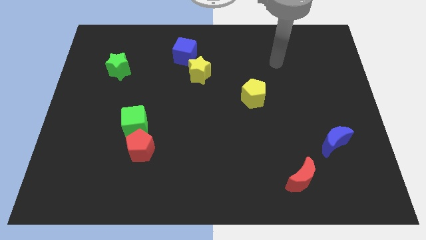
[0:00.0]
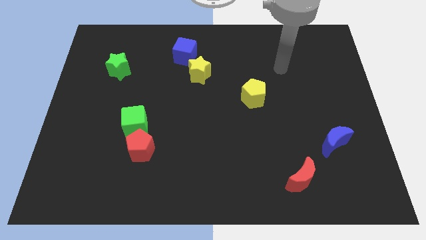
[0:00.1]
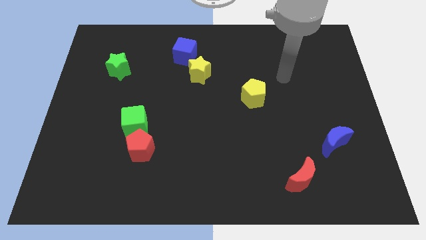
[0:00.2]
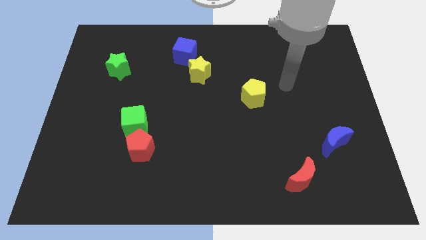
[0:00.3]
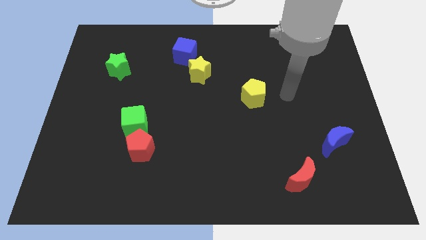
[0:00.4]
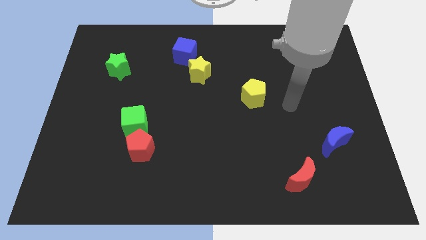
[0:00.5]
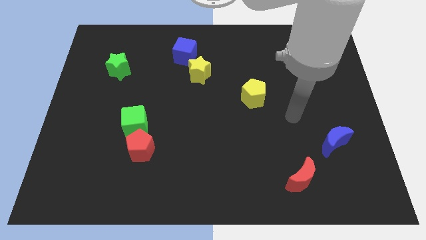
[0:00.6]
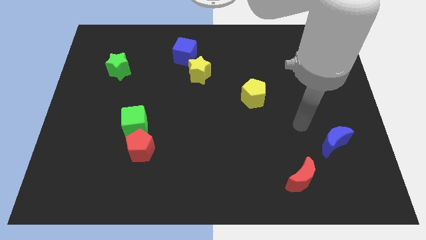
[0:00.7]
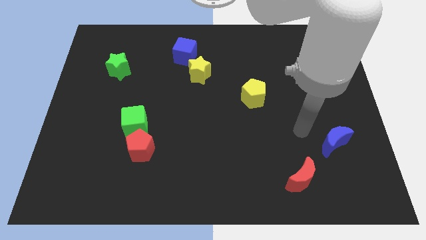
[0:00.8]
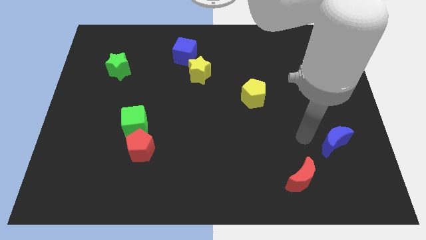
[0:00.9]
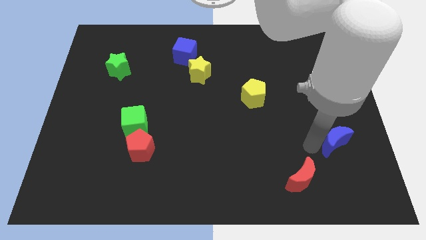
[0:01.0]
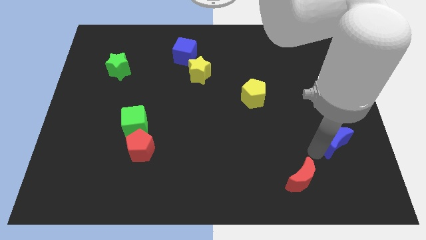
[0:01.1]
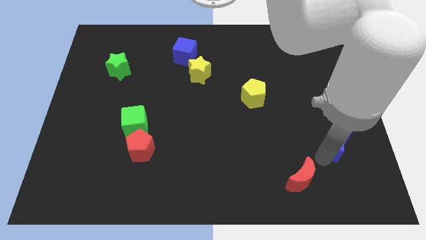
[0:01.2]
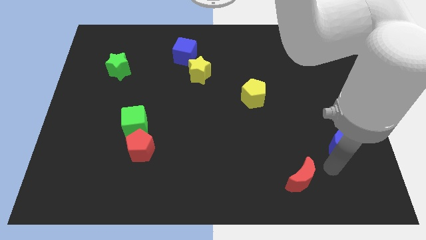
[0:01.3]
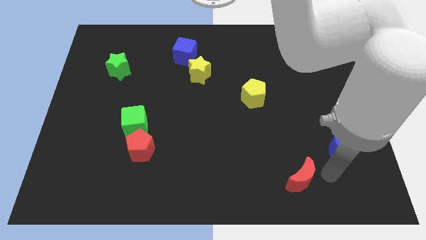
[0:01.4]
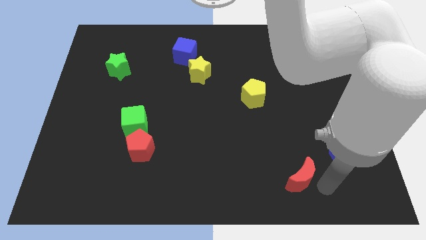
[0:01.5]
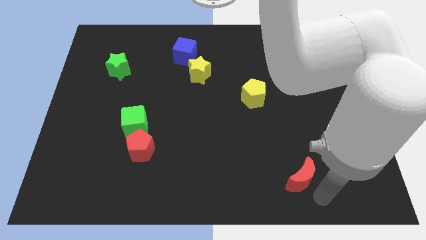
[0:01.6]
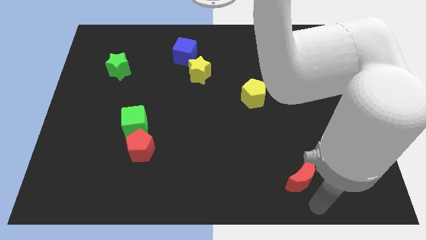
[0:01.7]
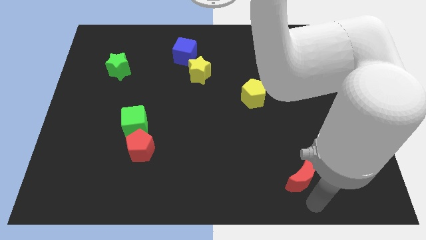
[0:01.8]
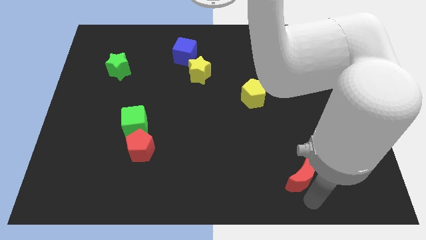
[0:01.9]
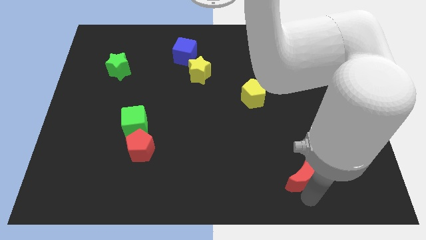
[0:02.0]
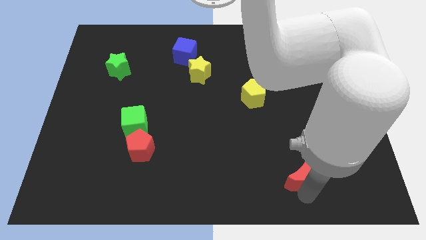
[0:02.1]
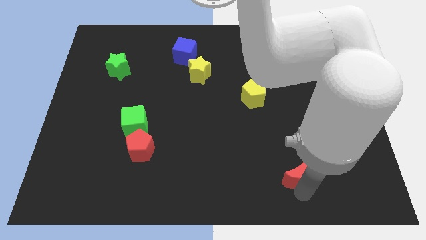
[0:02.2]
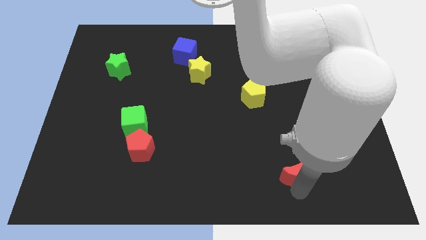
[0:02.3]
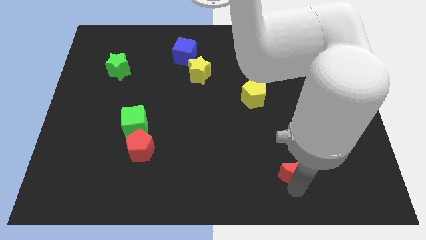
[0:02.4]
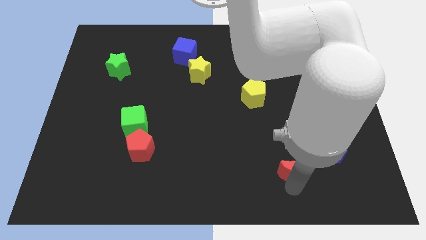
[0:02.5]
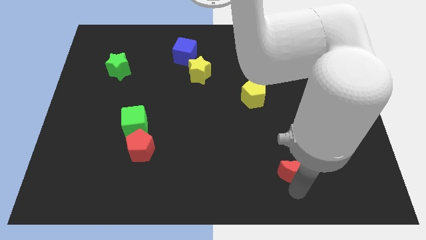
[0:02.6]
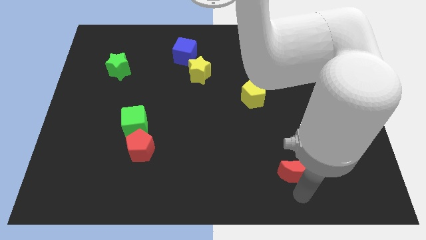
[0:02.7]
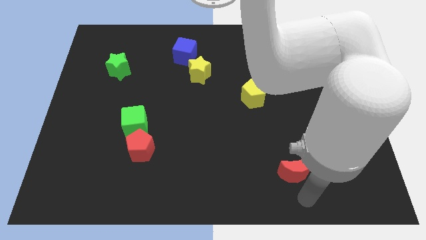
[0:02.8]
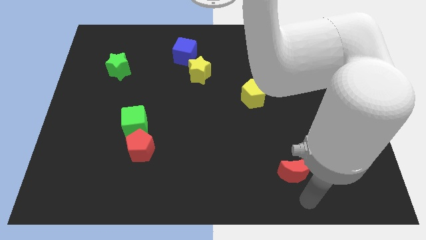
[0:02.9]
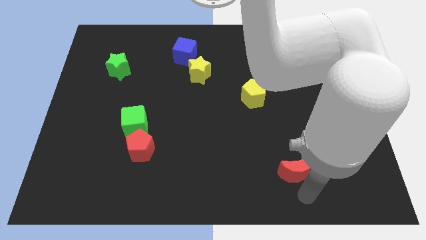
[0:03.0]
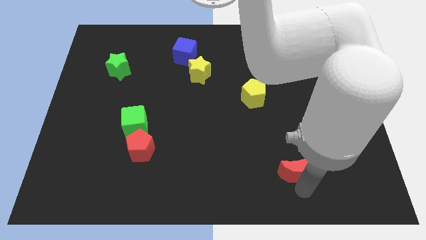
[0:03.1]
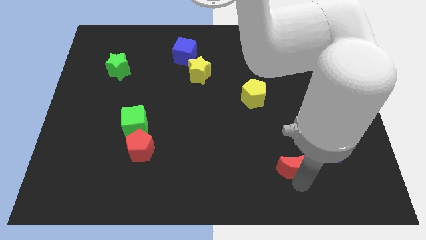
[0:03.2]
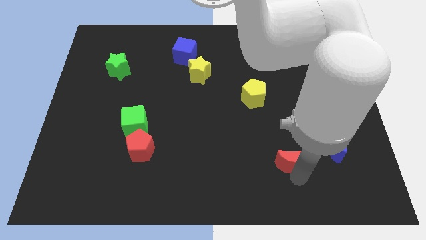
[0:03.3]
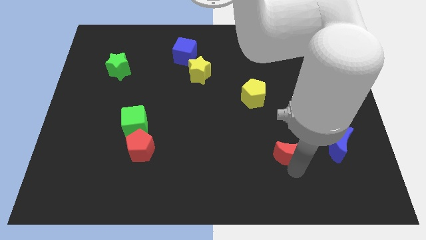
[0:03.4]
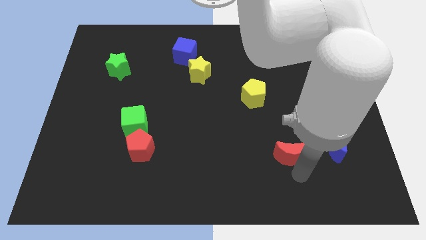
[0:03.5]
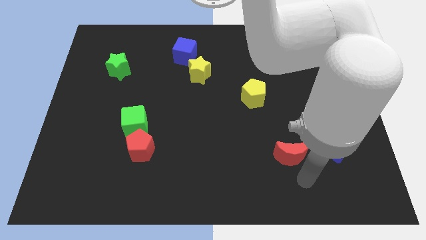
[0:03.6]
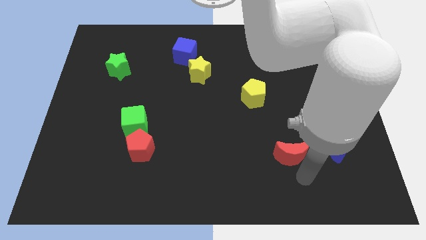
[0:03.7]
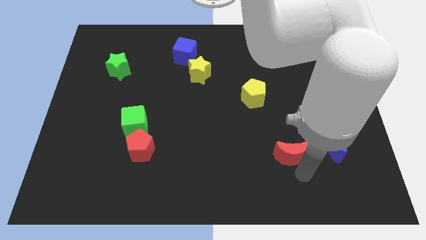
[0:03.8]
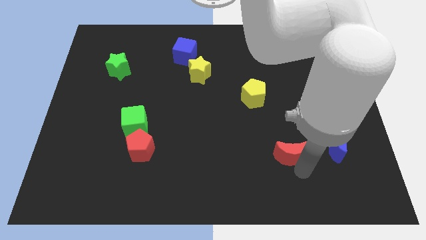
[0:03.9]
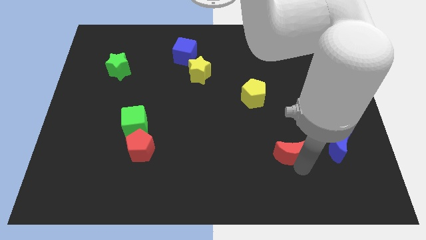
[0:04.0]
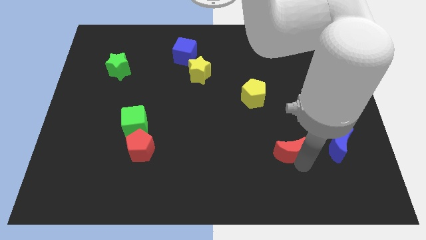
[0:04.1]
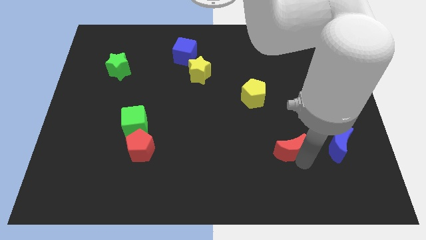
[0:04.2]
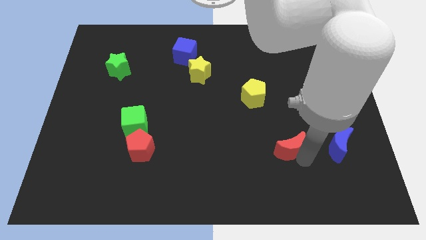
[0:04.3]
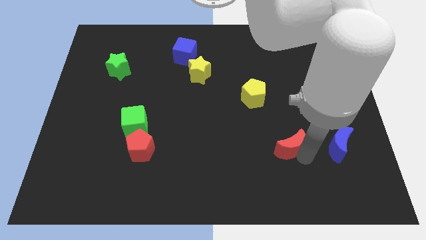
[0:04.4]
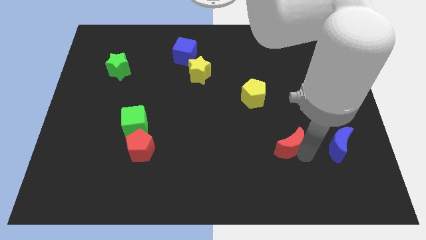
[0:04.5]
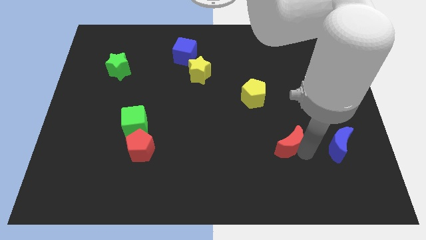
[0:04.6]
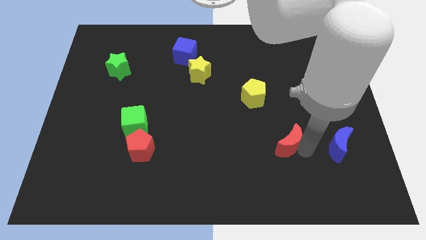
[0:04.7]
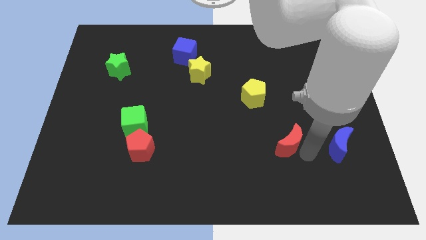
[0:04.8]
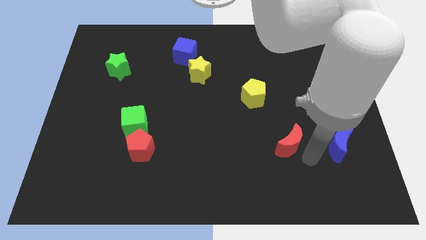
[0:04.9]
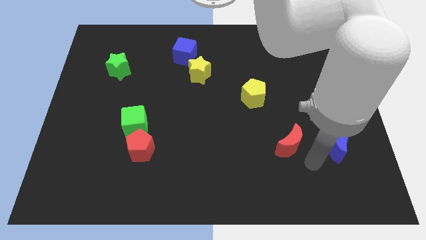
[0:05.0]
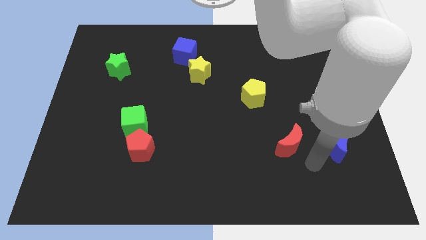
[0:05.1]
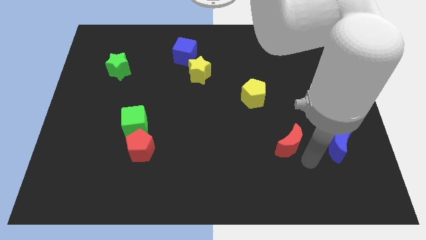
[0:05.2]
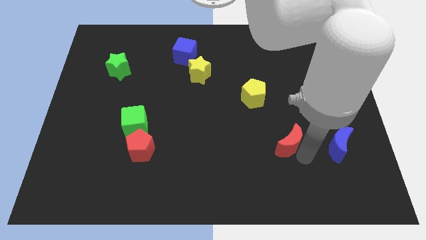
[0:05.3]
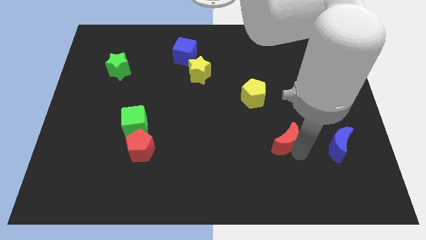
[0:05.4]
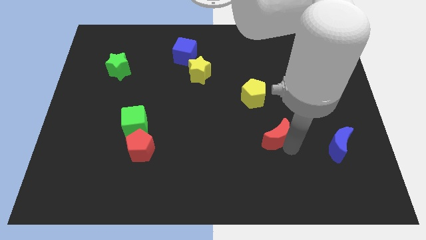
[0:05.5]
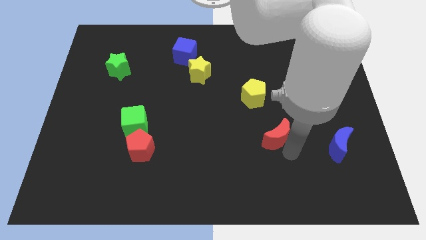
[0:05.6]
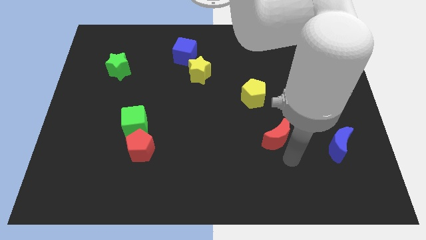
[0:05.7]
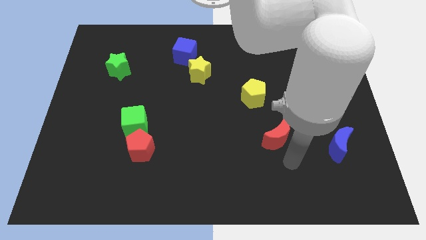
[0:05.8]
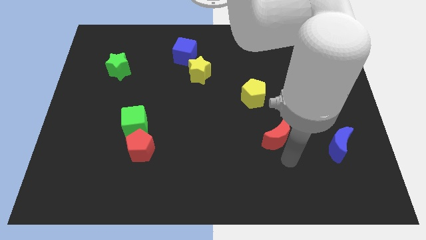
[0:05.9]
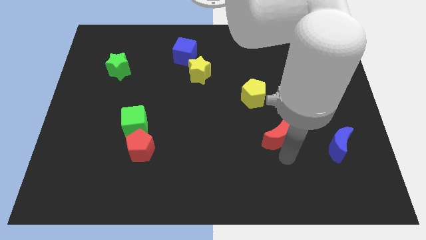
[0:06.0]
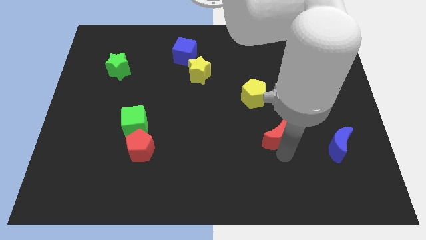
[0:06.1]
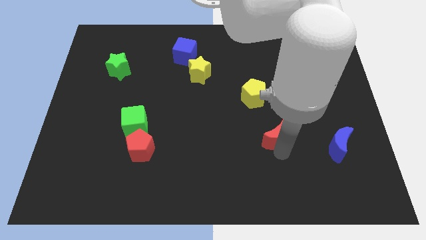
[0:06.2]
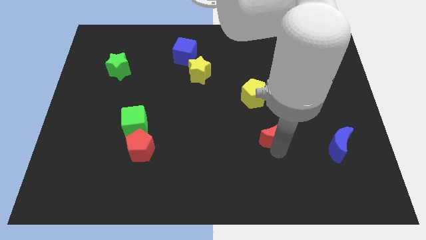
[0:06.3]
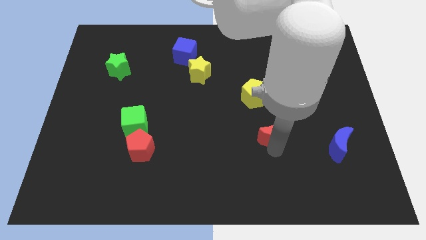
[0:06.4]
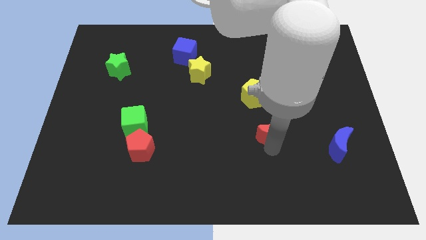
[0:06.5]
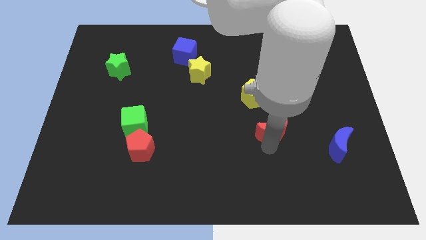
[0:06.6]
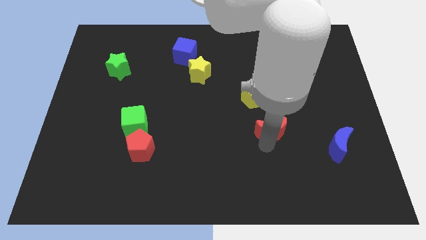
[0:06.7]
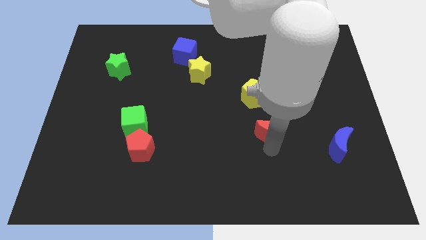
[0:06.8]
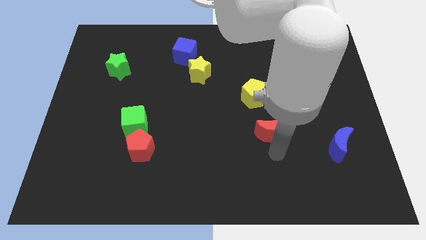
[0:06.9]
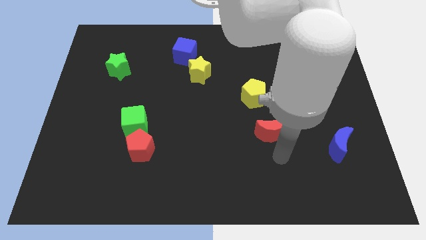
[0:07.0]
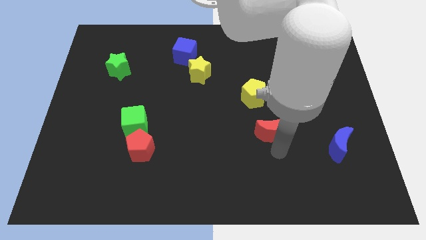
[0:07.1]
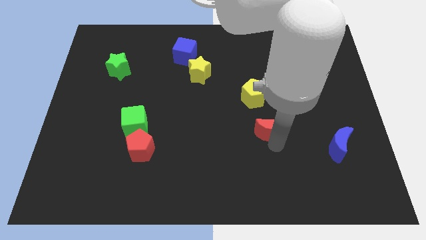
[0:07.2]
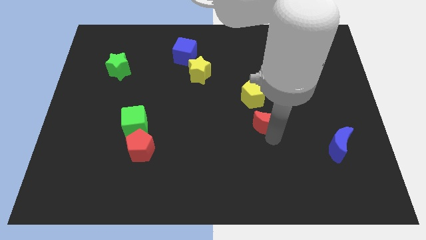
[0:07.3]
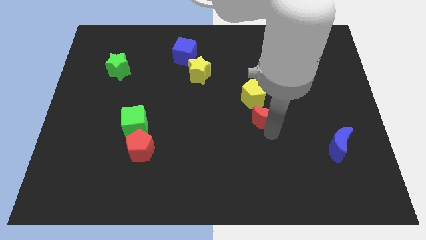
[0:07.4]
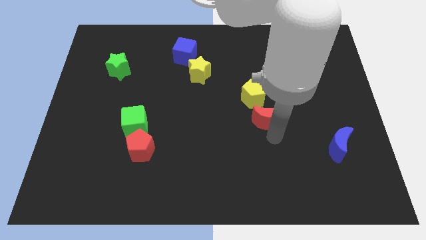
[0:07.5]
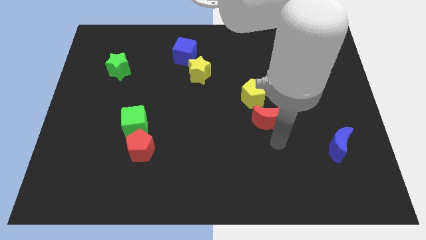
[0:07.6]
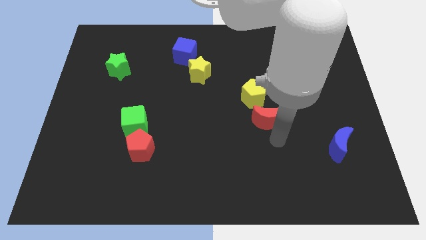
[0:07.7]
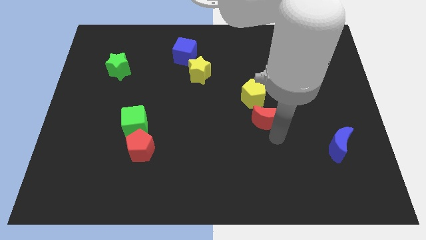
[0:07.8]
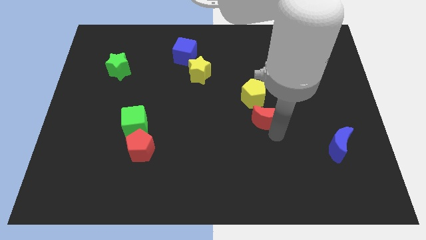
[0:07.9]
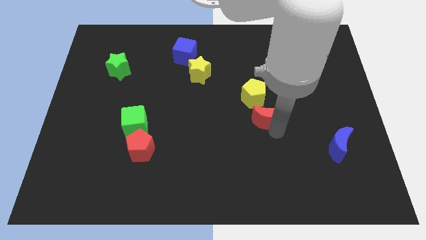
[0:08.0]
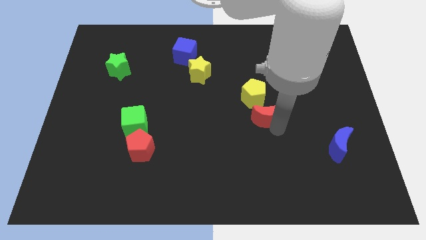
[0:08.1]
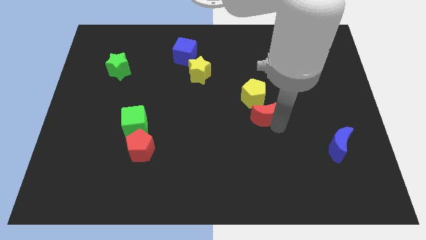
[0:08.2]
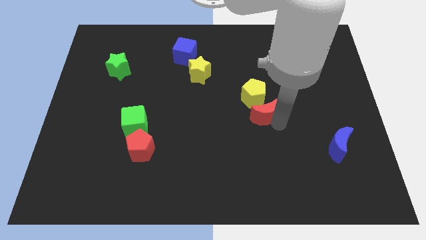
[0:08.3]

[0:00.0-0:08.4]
push the red moon towards the yellow pentagon
